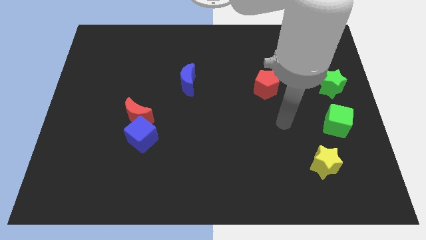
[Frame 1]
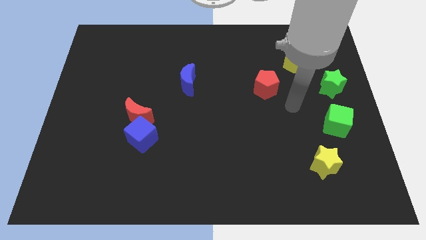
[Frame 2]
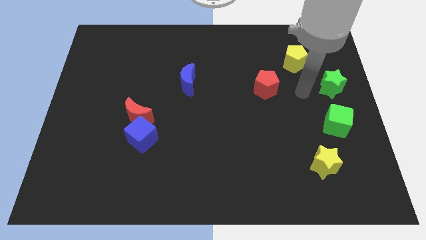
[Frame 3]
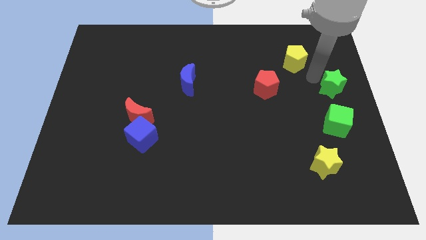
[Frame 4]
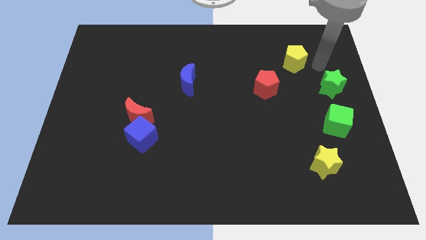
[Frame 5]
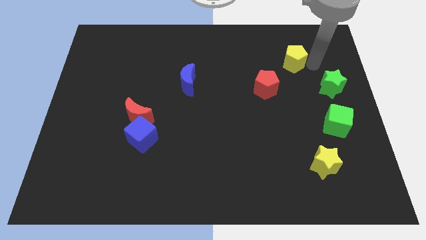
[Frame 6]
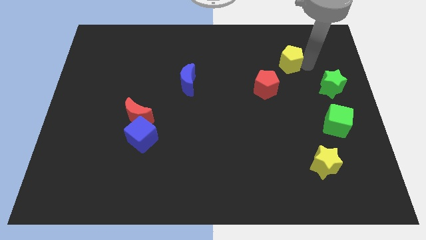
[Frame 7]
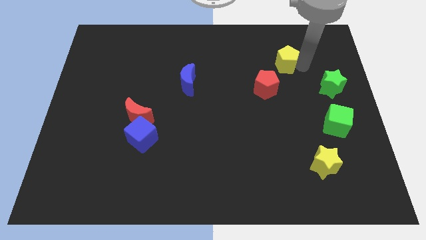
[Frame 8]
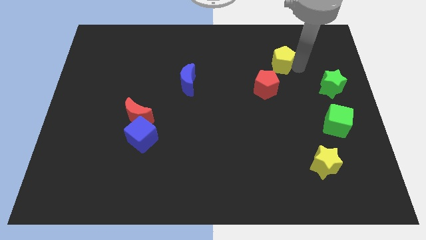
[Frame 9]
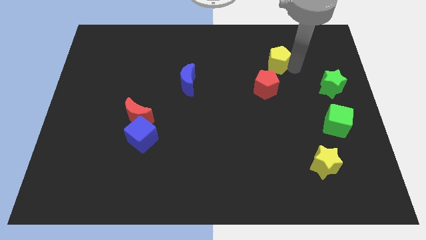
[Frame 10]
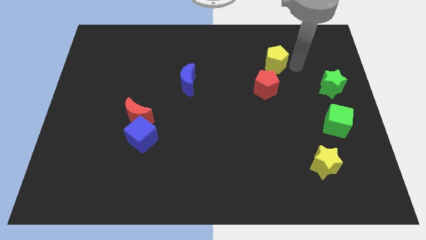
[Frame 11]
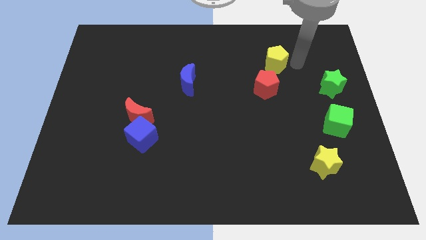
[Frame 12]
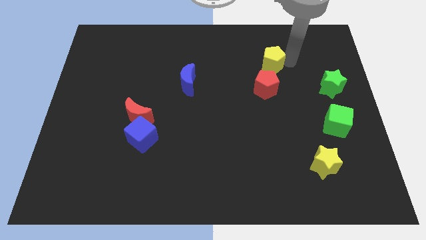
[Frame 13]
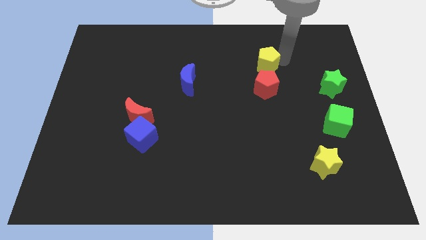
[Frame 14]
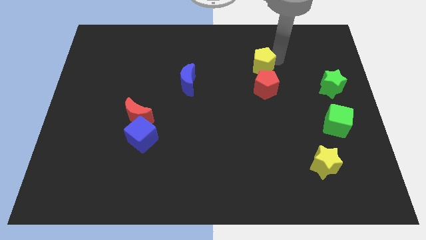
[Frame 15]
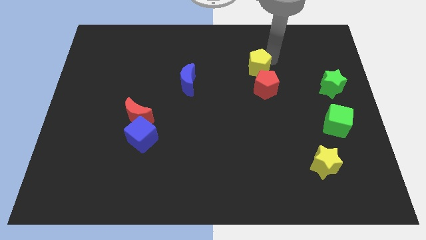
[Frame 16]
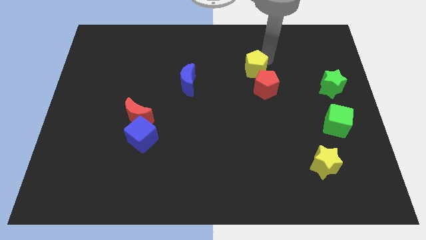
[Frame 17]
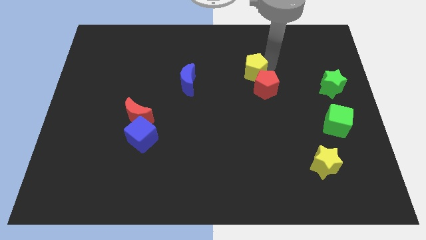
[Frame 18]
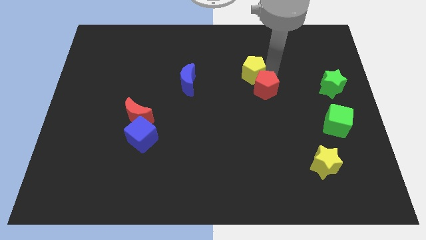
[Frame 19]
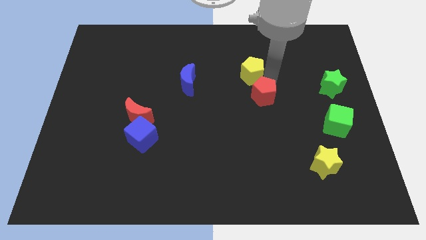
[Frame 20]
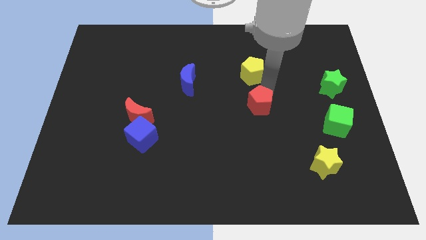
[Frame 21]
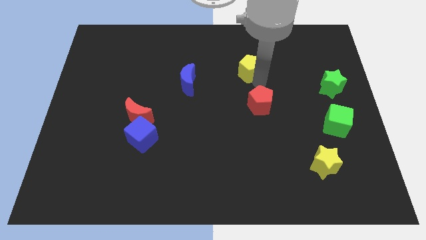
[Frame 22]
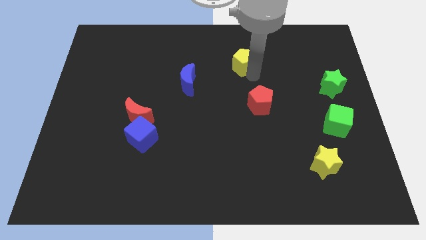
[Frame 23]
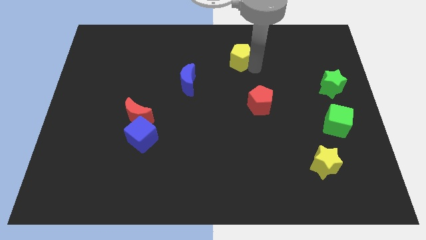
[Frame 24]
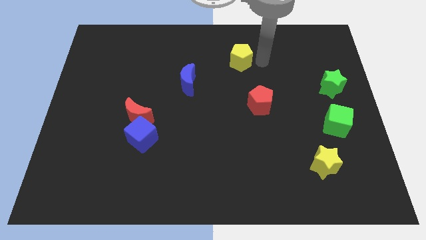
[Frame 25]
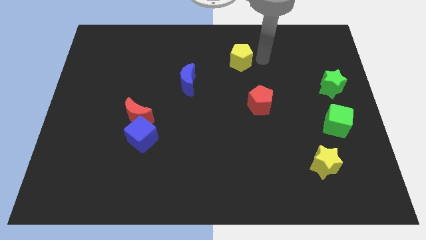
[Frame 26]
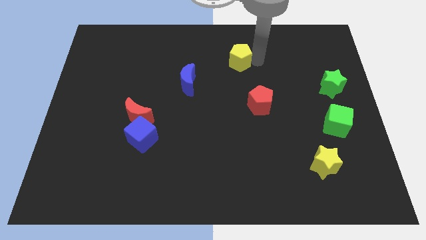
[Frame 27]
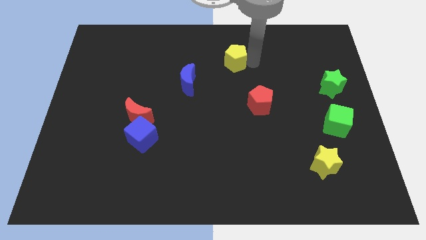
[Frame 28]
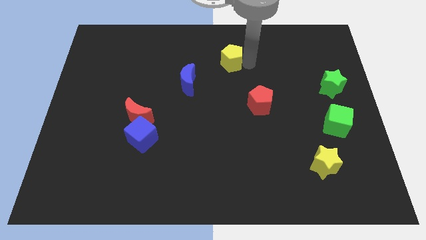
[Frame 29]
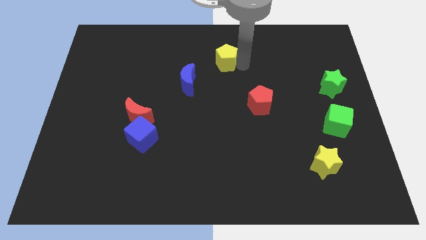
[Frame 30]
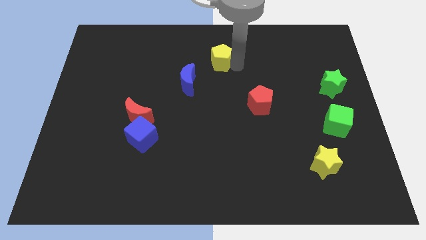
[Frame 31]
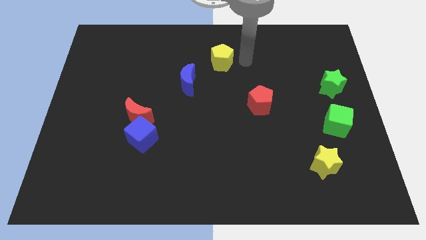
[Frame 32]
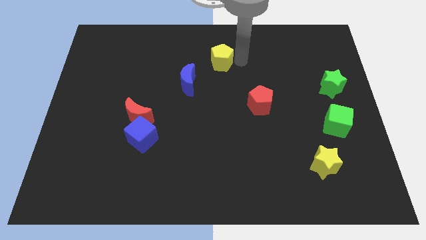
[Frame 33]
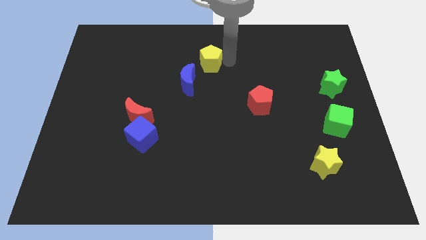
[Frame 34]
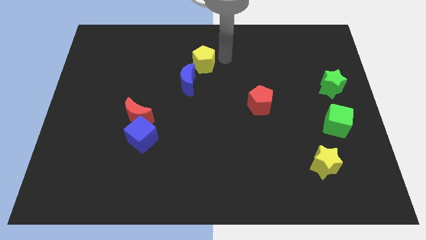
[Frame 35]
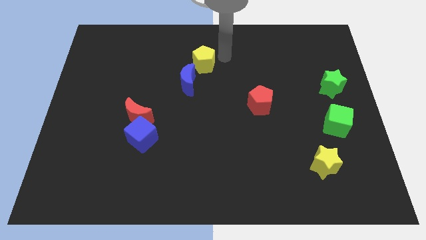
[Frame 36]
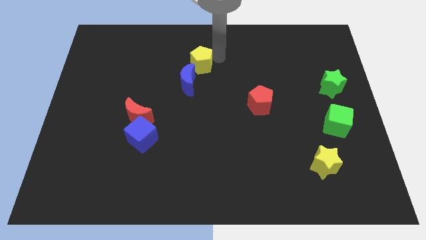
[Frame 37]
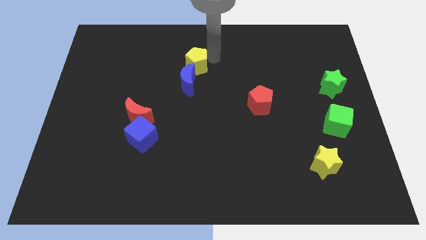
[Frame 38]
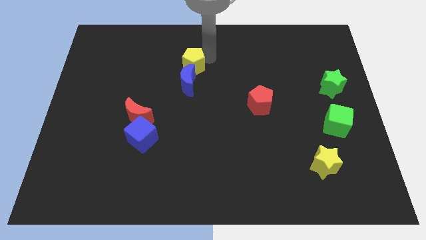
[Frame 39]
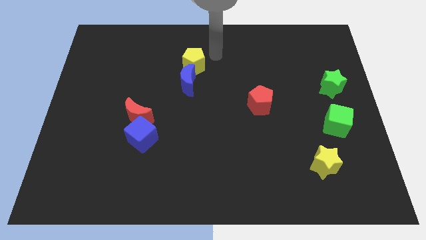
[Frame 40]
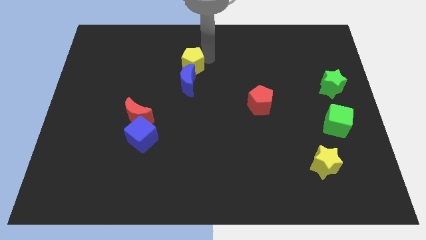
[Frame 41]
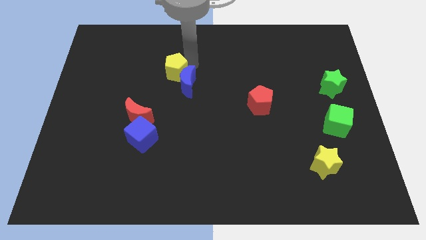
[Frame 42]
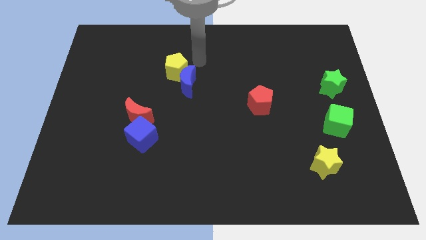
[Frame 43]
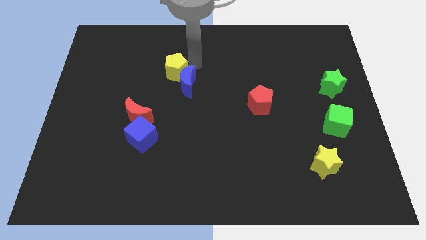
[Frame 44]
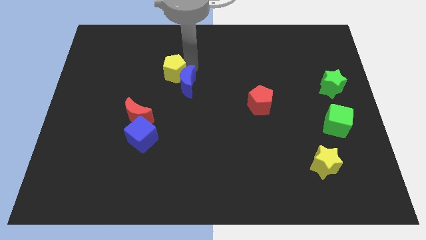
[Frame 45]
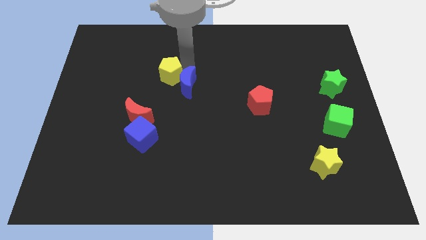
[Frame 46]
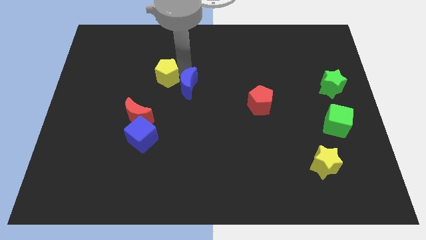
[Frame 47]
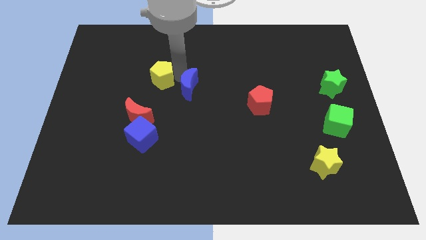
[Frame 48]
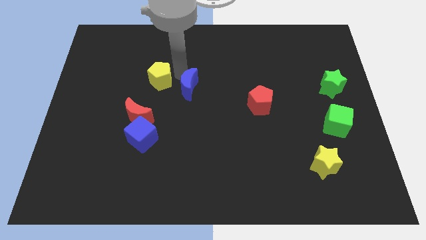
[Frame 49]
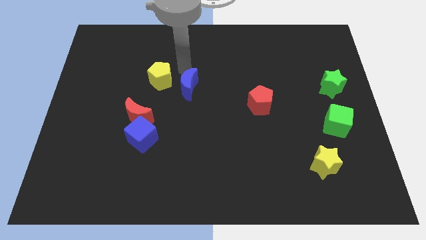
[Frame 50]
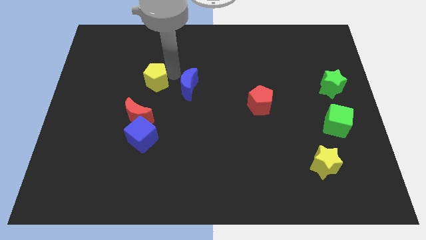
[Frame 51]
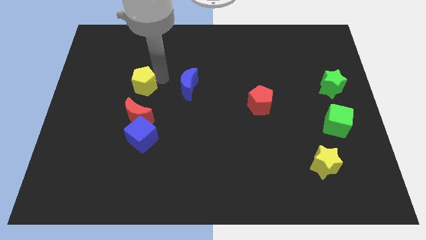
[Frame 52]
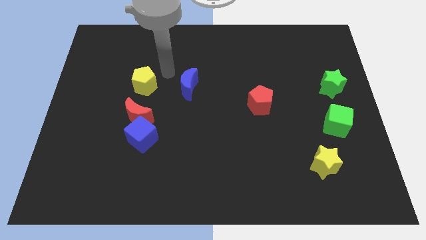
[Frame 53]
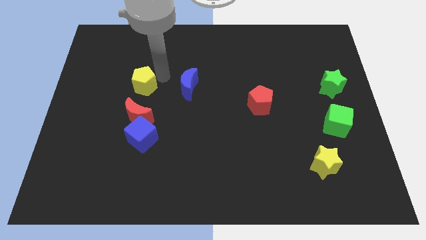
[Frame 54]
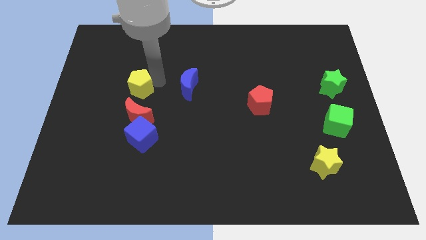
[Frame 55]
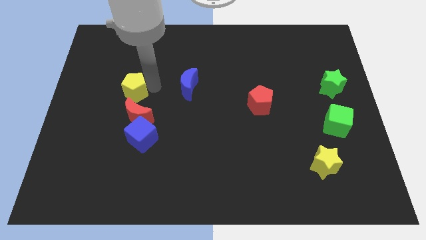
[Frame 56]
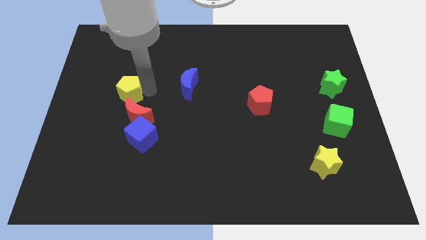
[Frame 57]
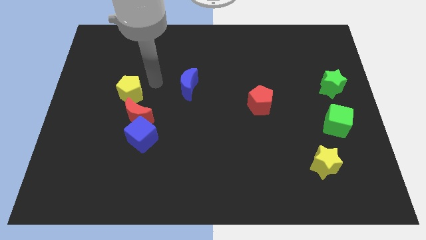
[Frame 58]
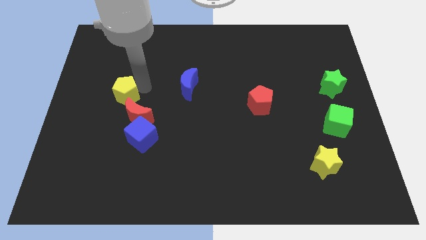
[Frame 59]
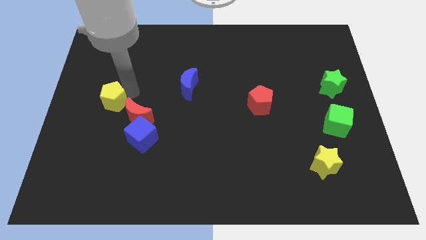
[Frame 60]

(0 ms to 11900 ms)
push the yellow pentagon just left of the red moon

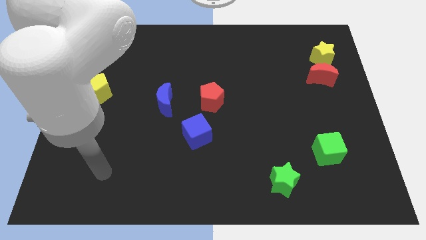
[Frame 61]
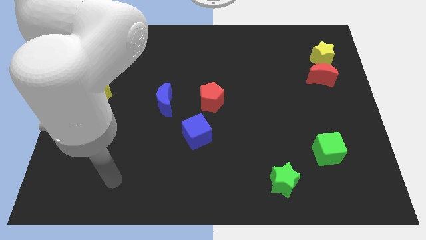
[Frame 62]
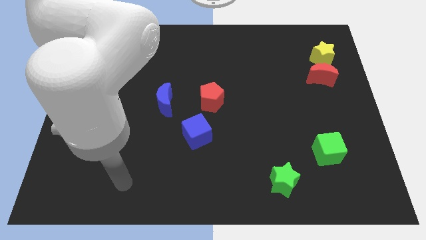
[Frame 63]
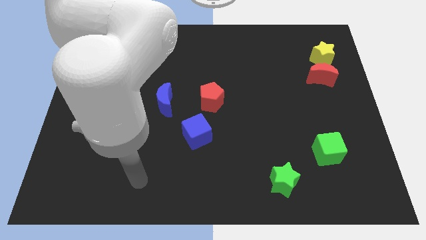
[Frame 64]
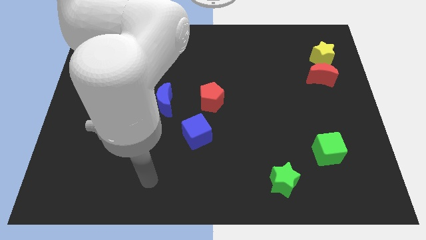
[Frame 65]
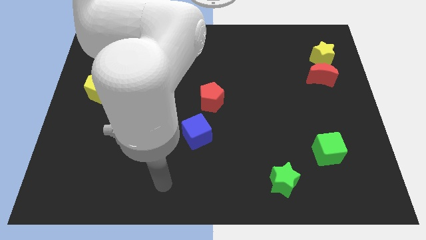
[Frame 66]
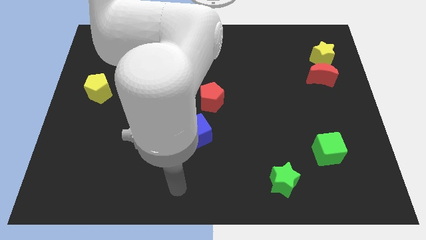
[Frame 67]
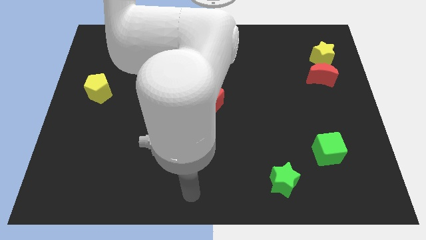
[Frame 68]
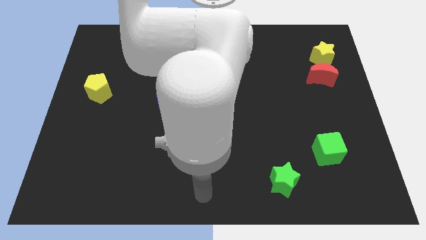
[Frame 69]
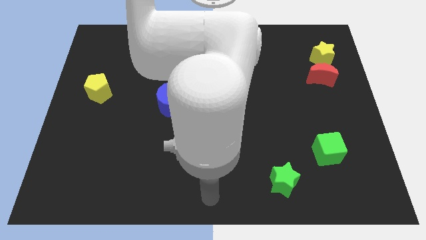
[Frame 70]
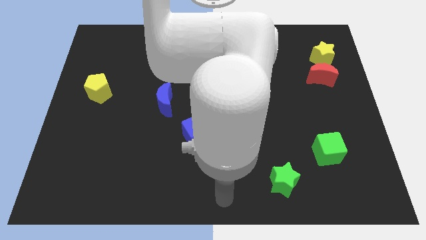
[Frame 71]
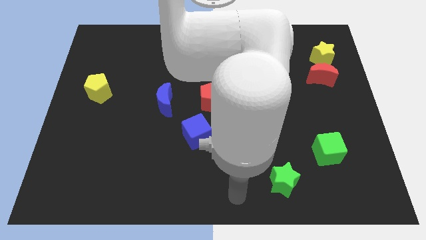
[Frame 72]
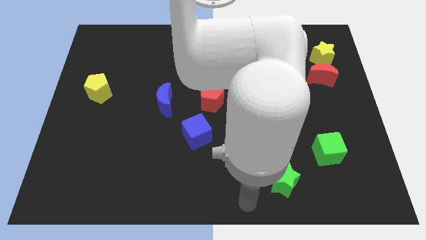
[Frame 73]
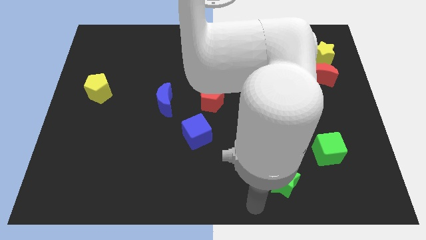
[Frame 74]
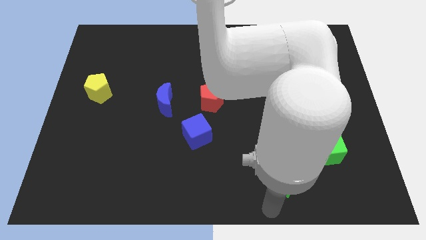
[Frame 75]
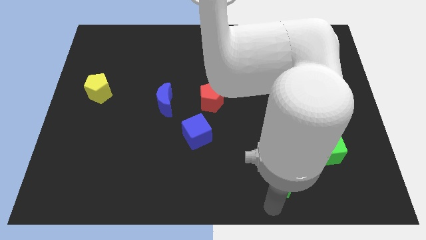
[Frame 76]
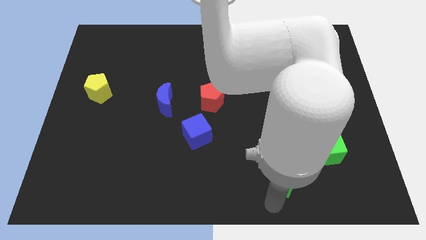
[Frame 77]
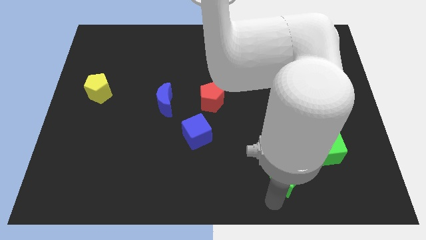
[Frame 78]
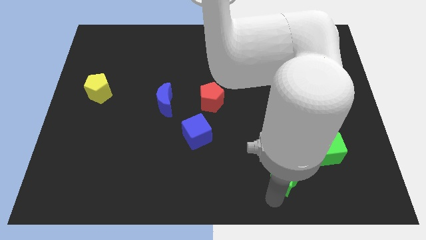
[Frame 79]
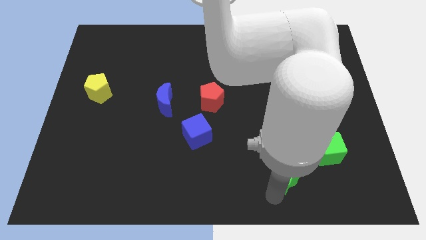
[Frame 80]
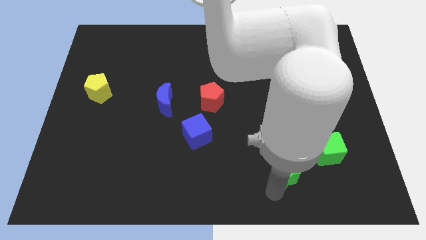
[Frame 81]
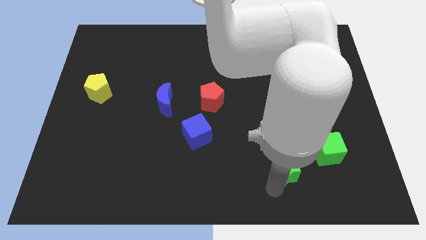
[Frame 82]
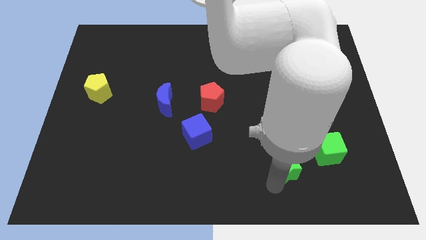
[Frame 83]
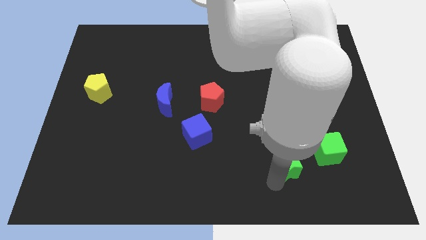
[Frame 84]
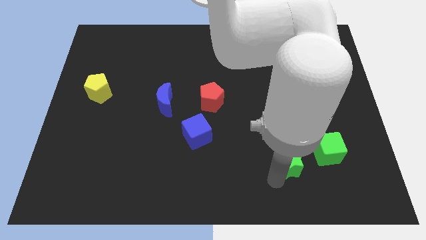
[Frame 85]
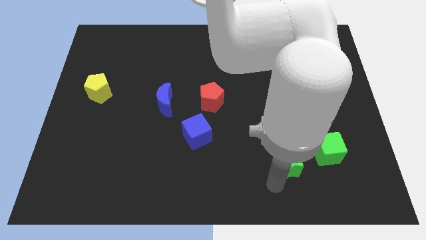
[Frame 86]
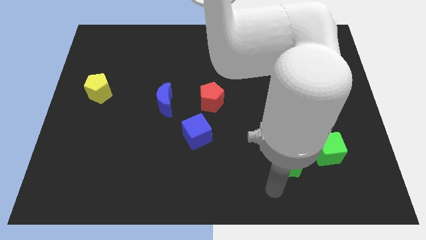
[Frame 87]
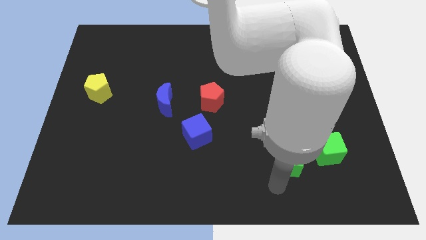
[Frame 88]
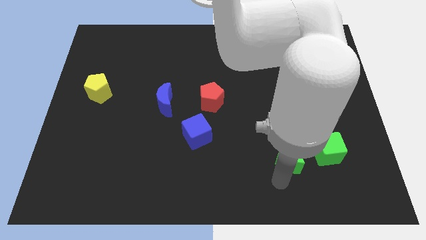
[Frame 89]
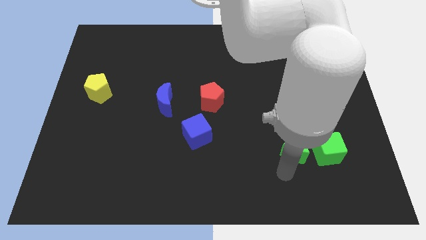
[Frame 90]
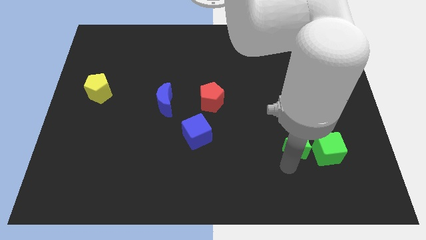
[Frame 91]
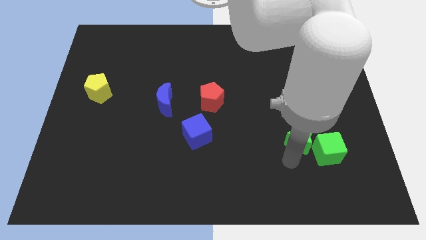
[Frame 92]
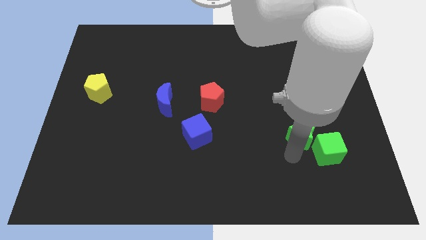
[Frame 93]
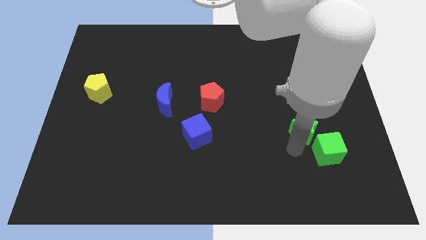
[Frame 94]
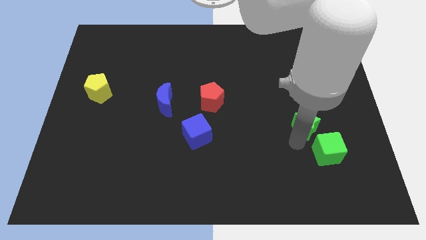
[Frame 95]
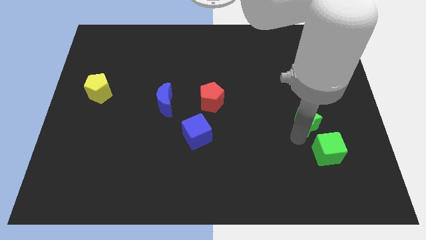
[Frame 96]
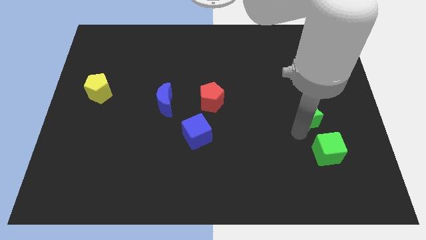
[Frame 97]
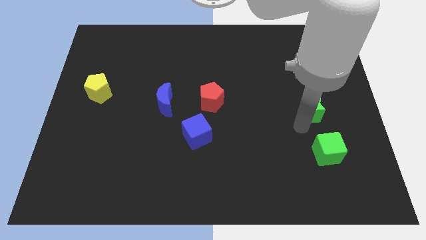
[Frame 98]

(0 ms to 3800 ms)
move the green star to the bottom of the red moon
